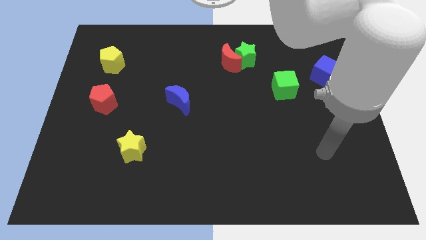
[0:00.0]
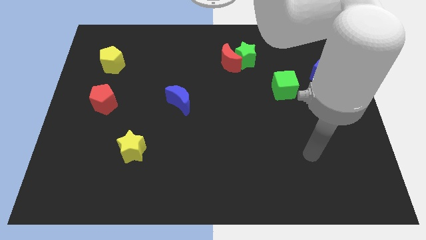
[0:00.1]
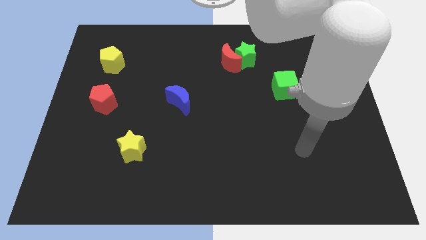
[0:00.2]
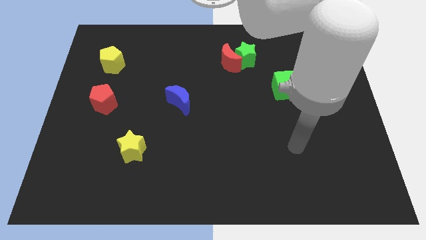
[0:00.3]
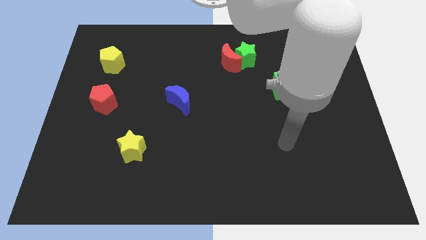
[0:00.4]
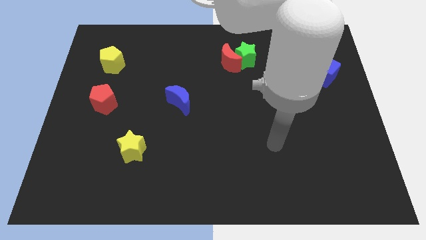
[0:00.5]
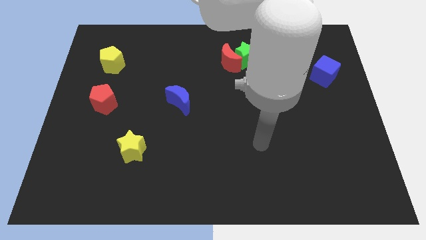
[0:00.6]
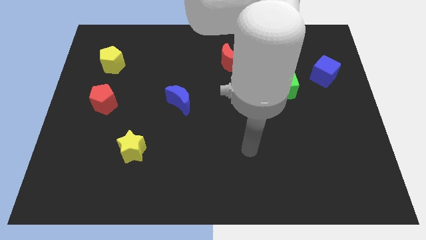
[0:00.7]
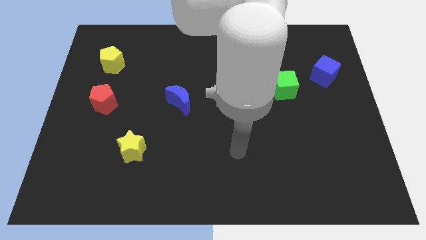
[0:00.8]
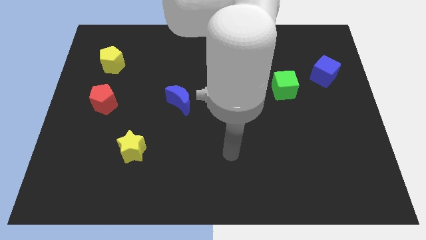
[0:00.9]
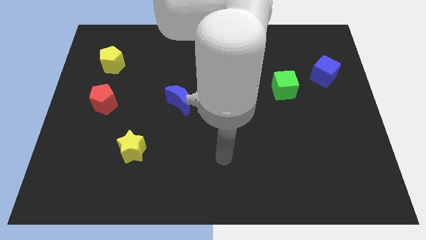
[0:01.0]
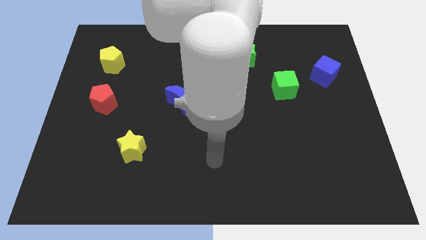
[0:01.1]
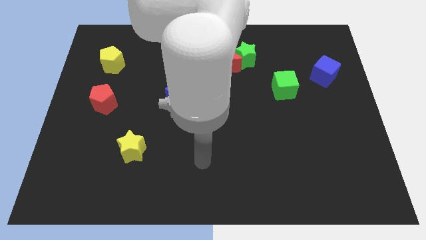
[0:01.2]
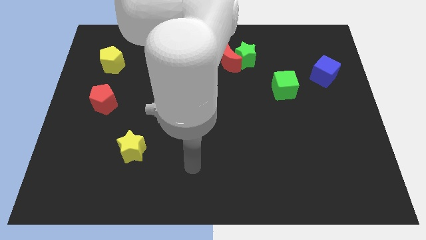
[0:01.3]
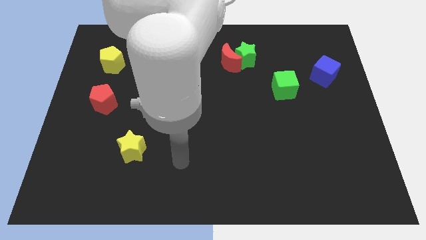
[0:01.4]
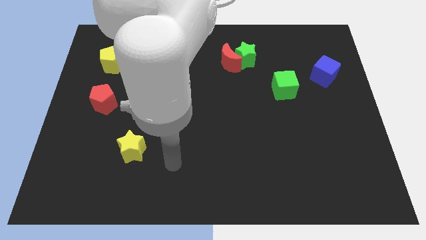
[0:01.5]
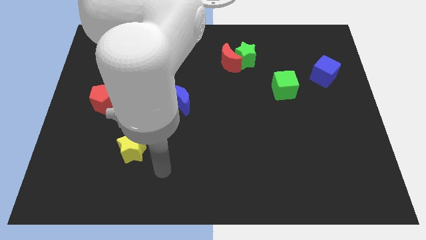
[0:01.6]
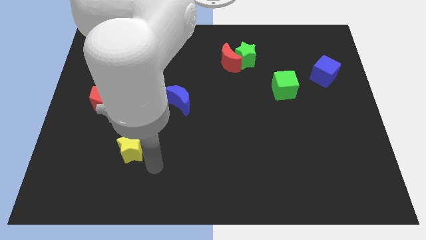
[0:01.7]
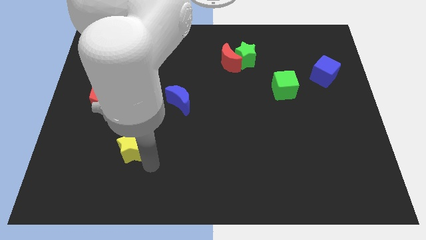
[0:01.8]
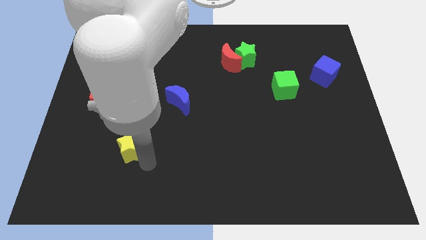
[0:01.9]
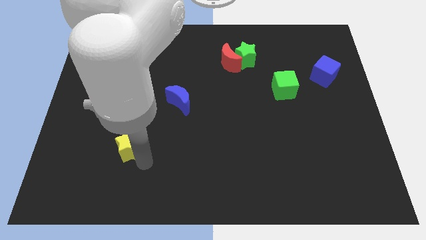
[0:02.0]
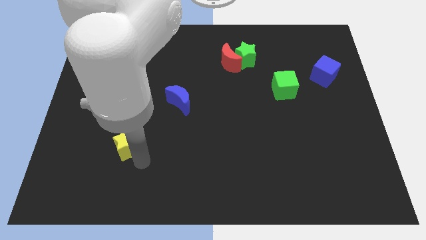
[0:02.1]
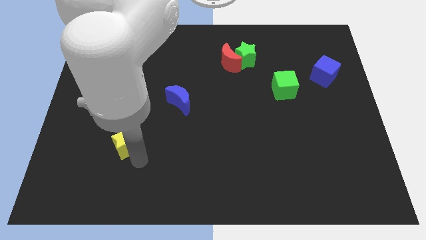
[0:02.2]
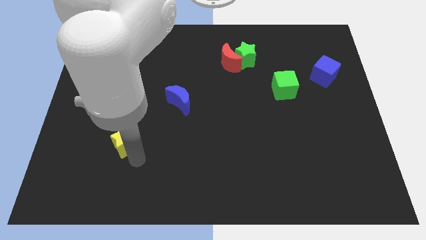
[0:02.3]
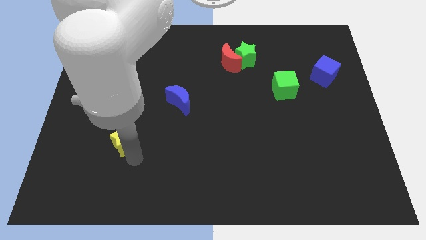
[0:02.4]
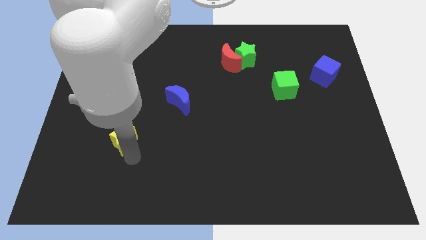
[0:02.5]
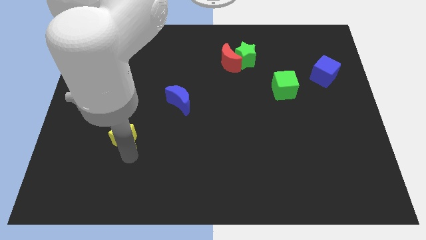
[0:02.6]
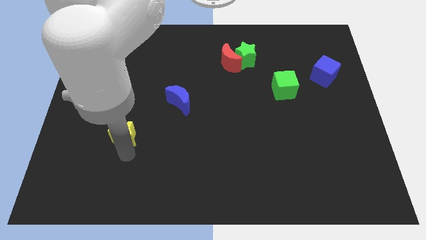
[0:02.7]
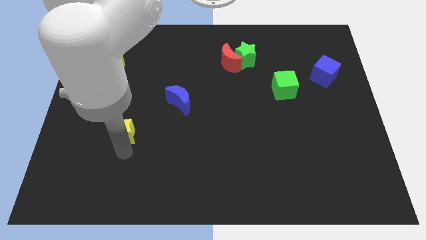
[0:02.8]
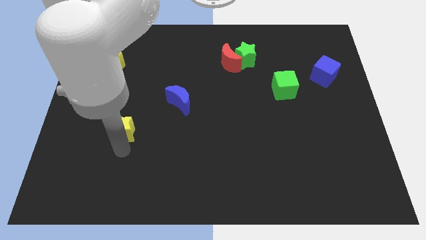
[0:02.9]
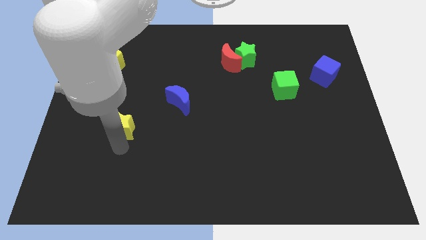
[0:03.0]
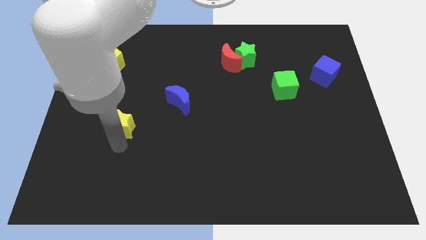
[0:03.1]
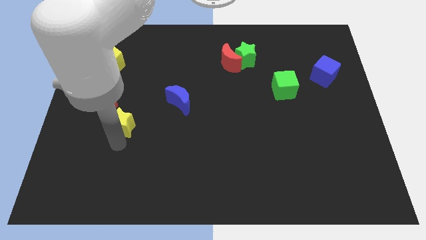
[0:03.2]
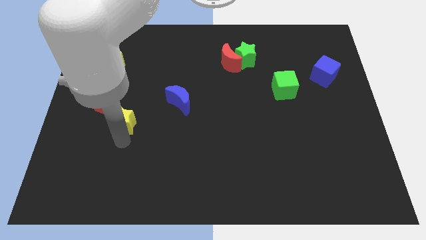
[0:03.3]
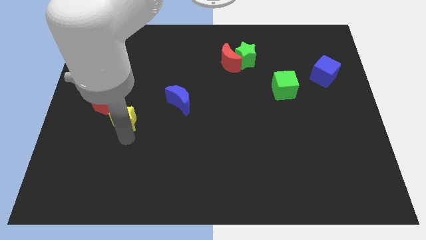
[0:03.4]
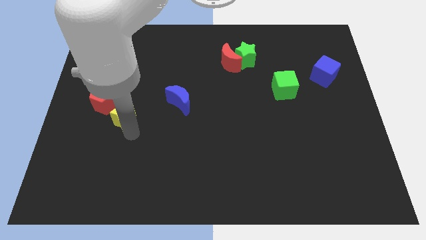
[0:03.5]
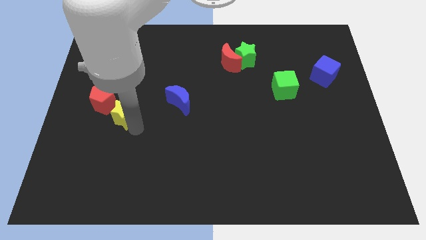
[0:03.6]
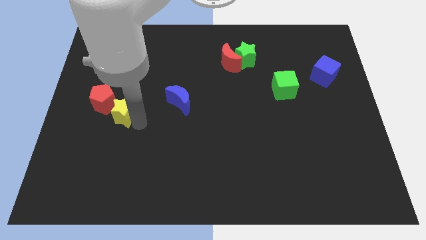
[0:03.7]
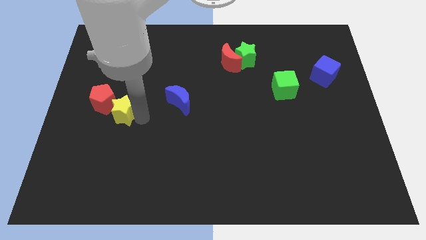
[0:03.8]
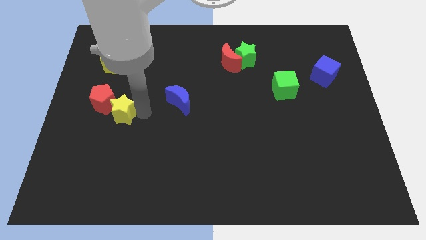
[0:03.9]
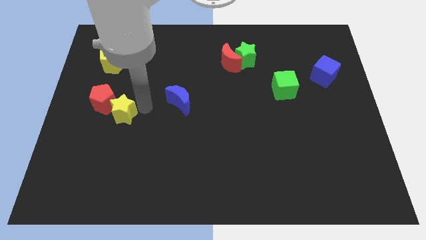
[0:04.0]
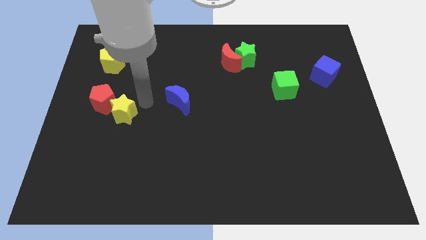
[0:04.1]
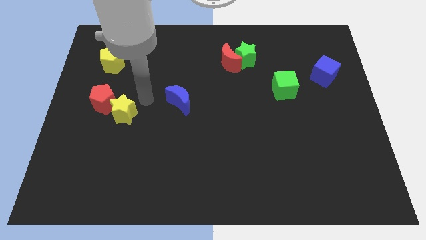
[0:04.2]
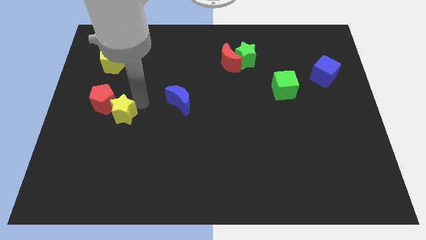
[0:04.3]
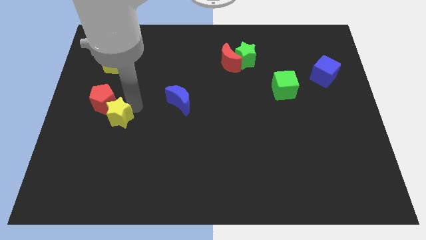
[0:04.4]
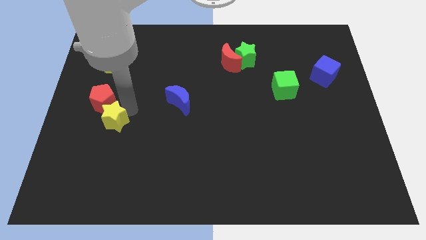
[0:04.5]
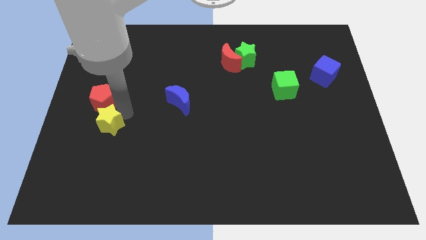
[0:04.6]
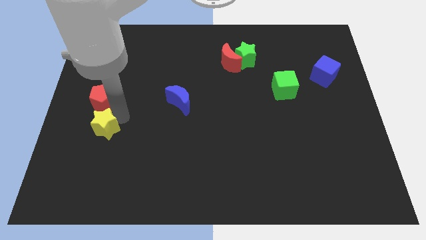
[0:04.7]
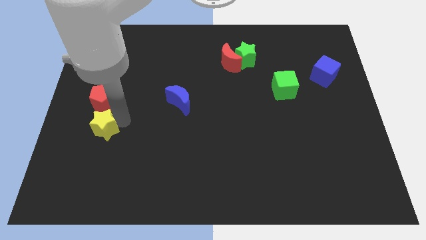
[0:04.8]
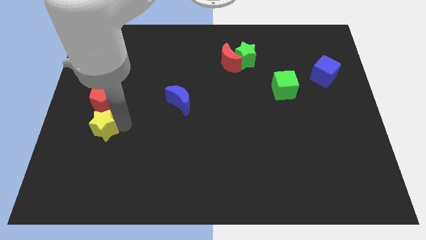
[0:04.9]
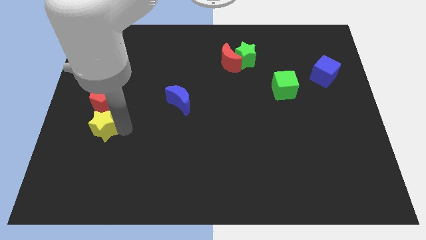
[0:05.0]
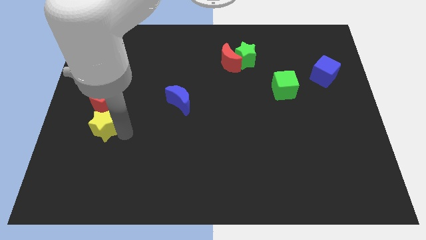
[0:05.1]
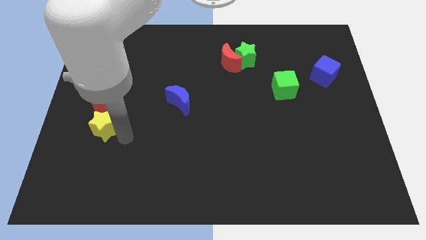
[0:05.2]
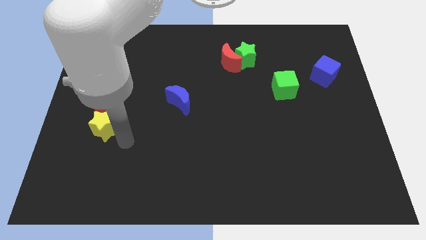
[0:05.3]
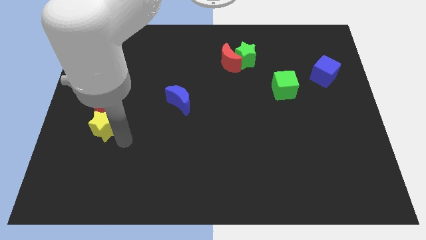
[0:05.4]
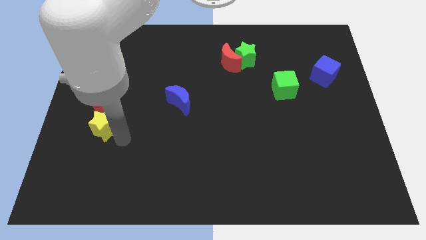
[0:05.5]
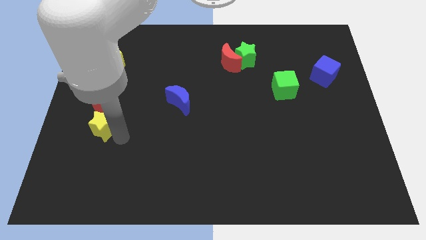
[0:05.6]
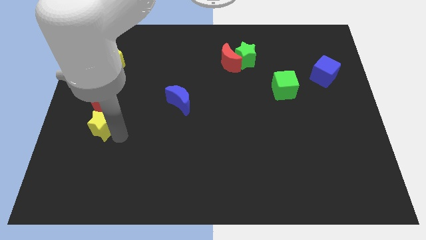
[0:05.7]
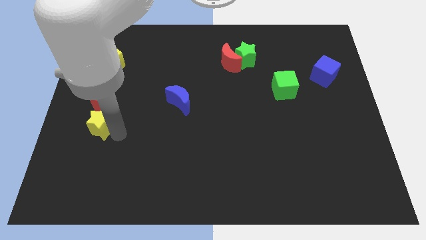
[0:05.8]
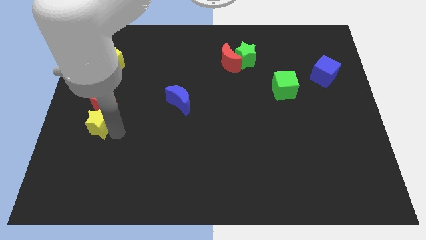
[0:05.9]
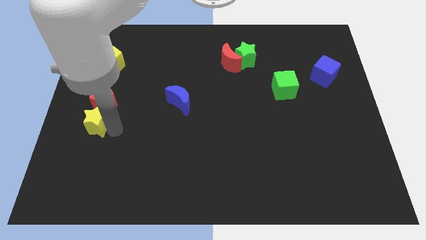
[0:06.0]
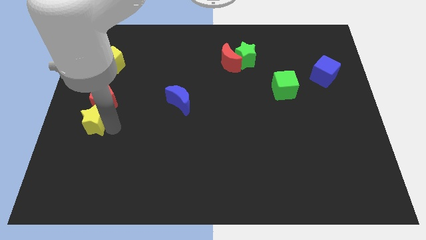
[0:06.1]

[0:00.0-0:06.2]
put the yellow star to the left side
